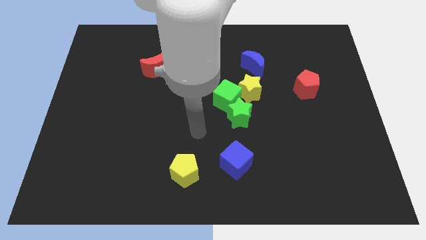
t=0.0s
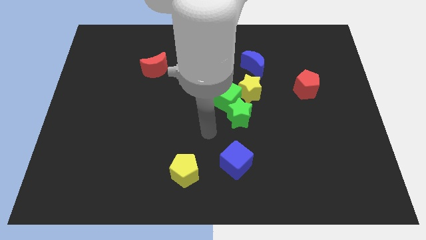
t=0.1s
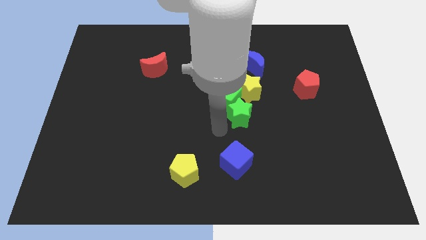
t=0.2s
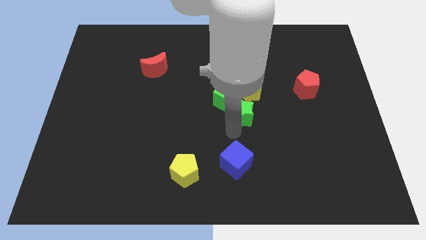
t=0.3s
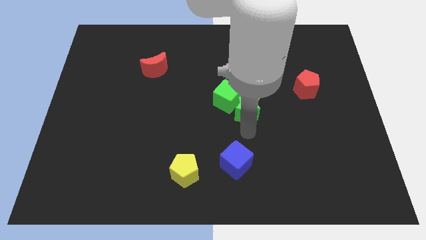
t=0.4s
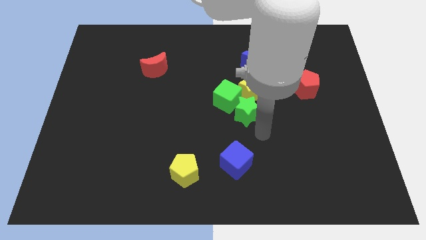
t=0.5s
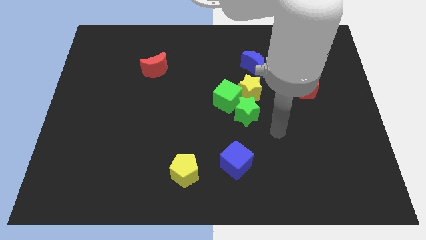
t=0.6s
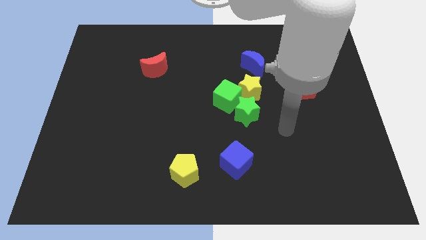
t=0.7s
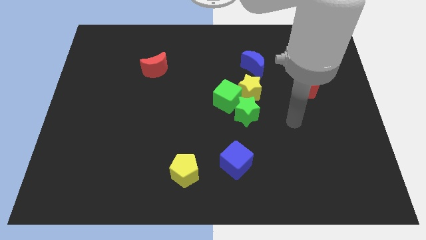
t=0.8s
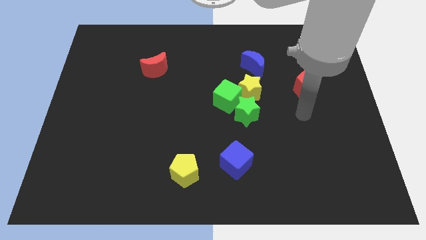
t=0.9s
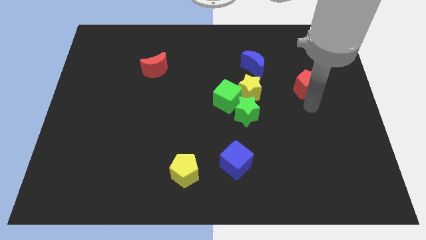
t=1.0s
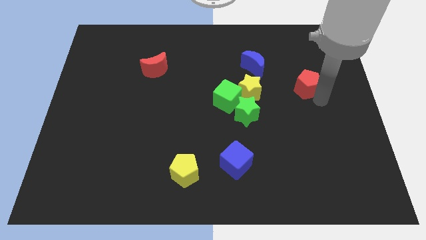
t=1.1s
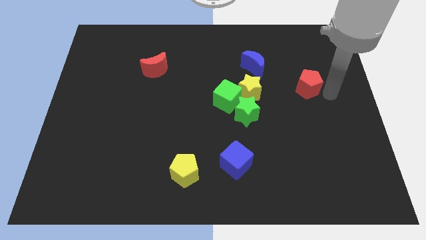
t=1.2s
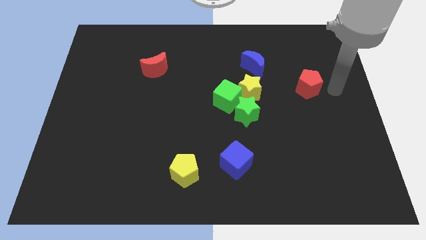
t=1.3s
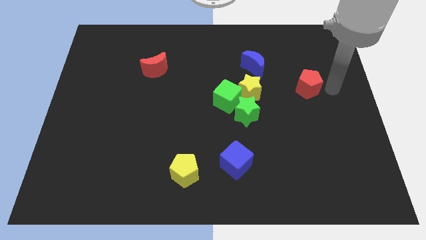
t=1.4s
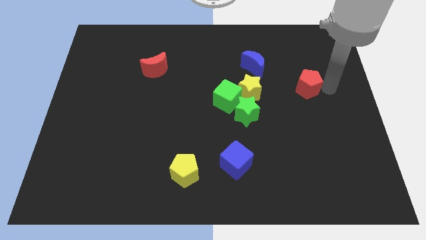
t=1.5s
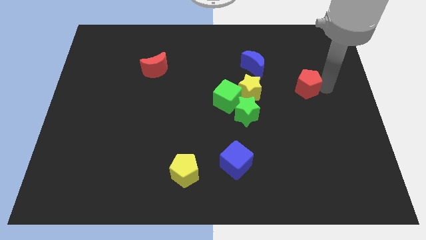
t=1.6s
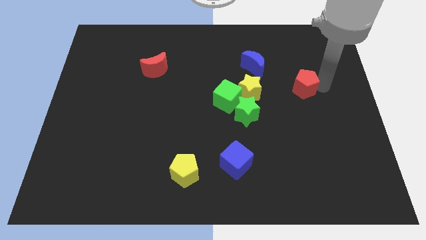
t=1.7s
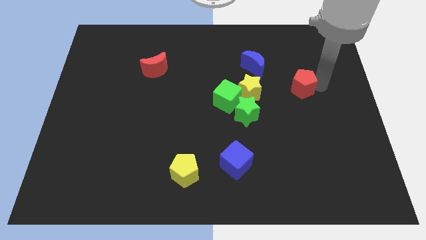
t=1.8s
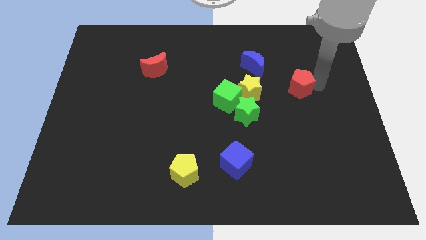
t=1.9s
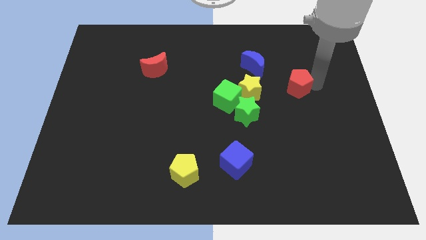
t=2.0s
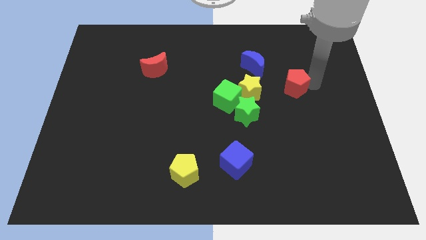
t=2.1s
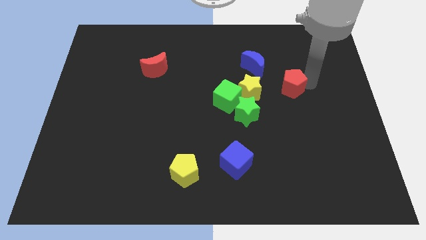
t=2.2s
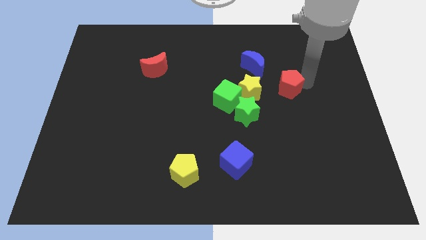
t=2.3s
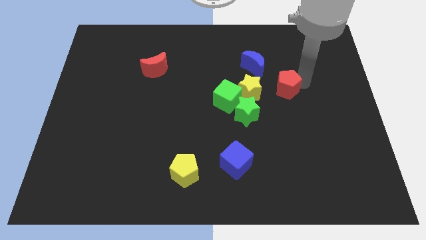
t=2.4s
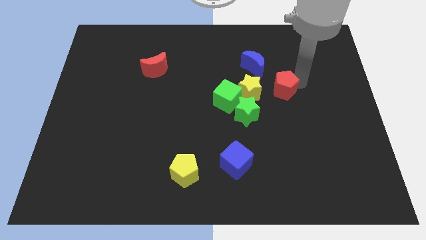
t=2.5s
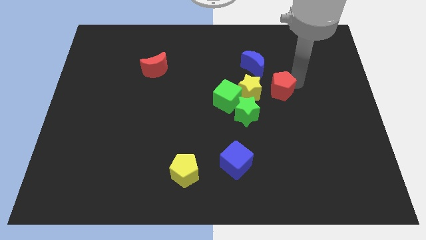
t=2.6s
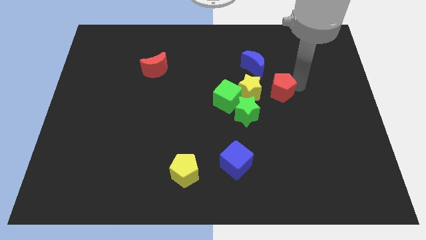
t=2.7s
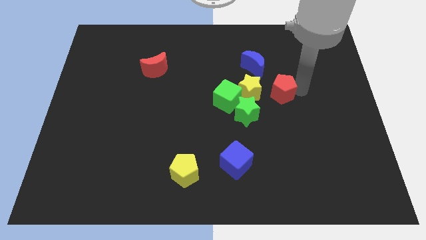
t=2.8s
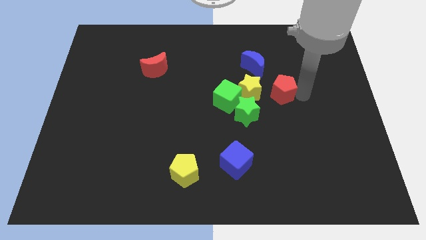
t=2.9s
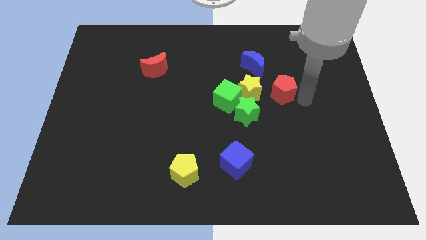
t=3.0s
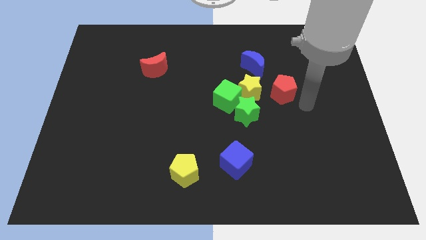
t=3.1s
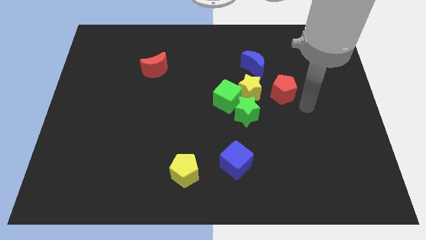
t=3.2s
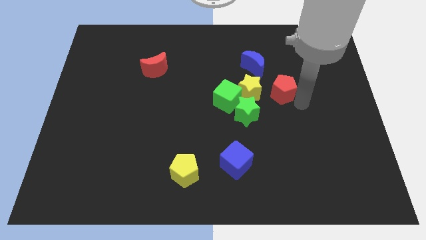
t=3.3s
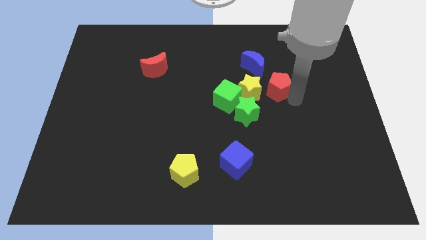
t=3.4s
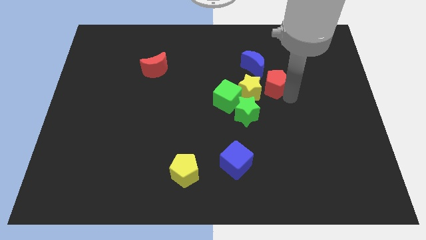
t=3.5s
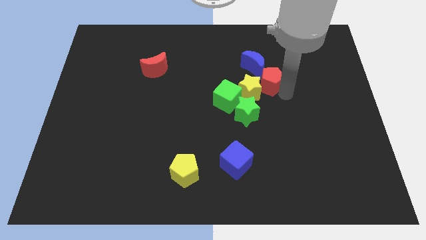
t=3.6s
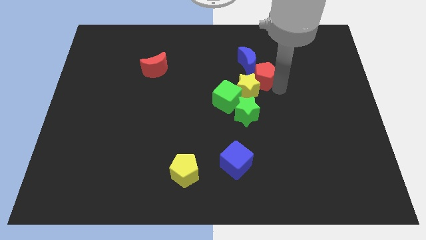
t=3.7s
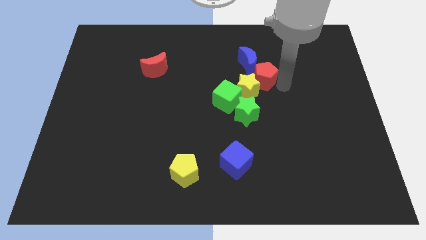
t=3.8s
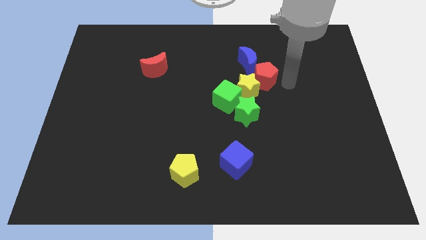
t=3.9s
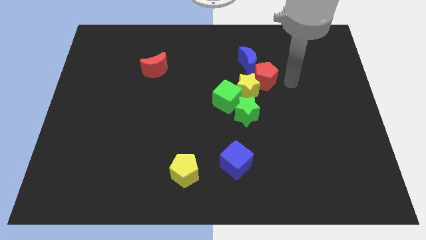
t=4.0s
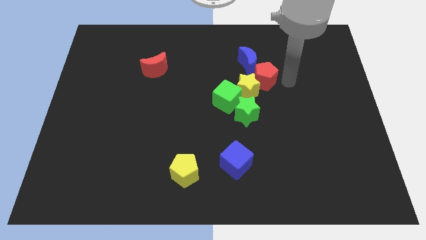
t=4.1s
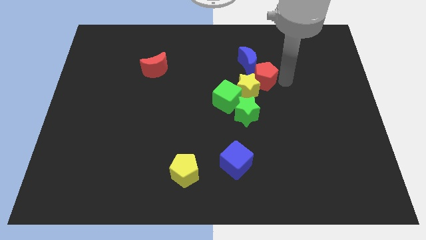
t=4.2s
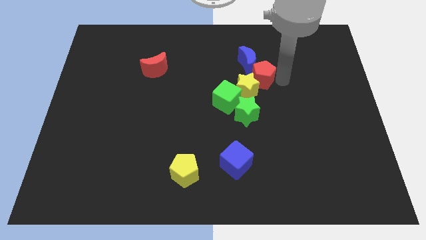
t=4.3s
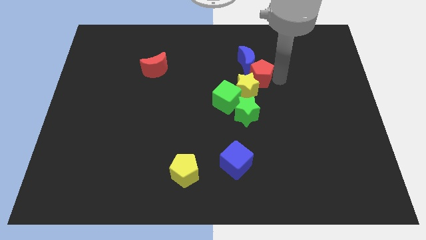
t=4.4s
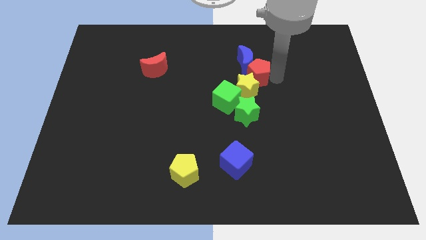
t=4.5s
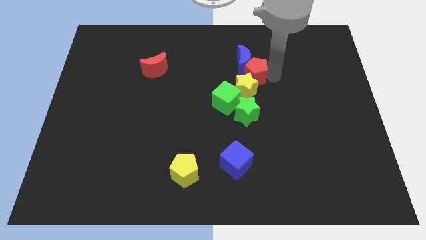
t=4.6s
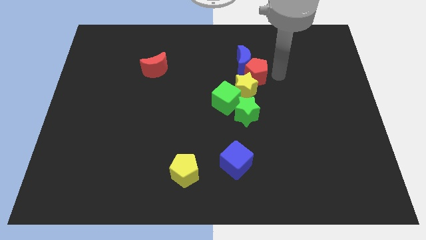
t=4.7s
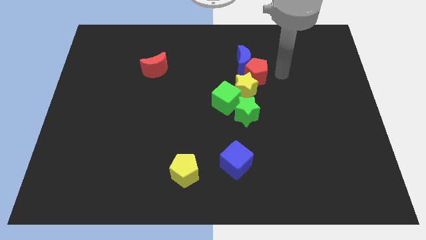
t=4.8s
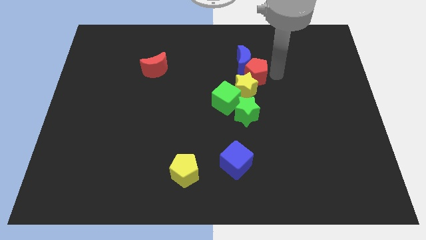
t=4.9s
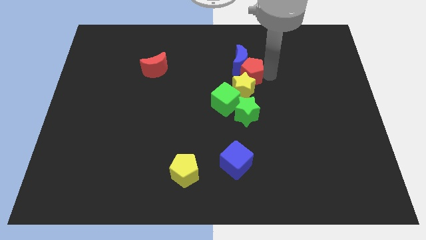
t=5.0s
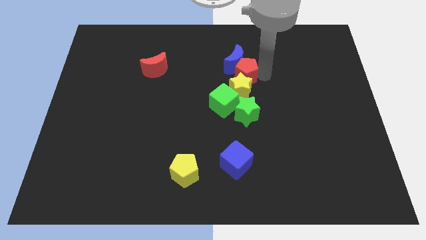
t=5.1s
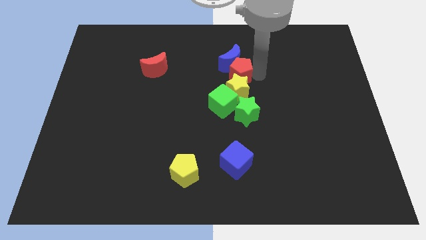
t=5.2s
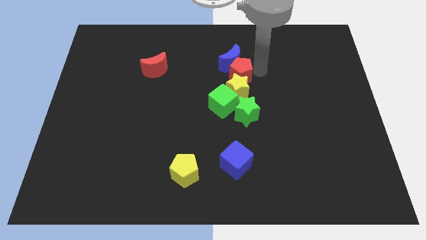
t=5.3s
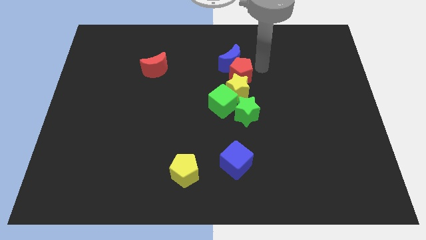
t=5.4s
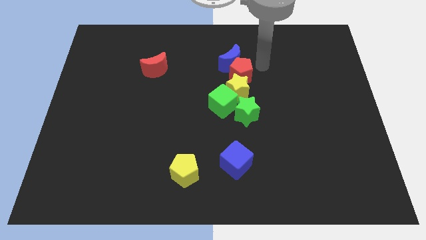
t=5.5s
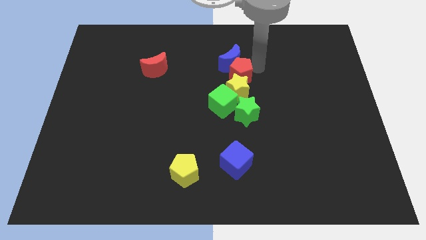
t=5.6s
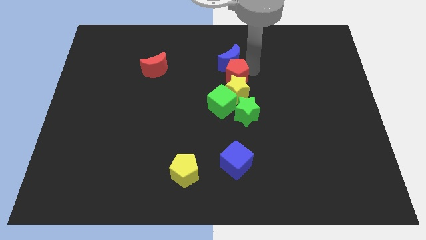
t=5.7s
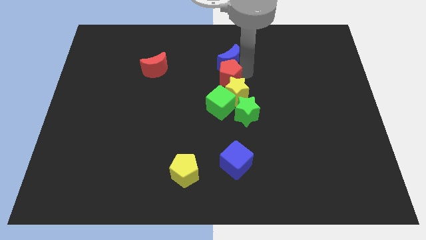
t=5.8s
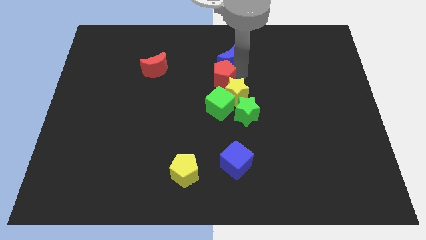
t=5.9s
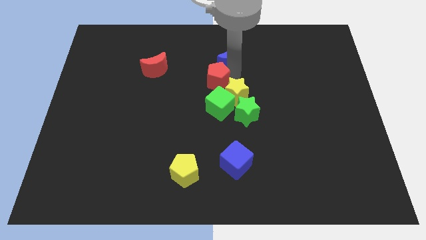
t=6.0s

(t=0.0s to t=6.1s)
push the red pentagon to the top left side of the green star

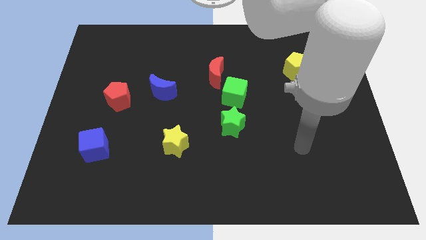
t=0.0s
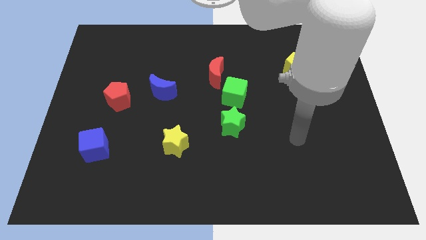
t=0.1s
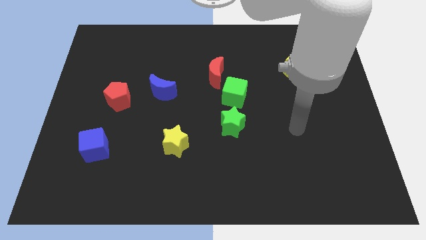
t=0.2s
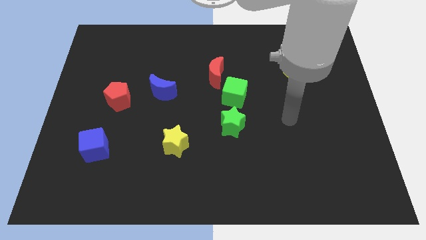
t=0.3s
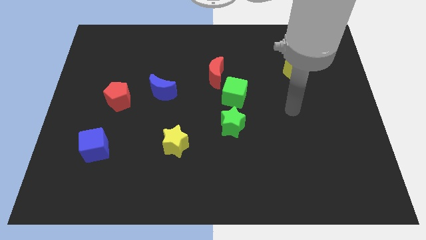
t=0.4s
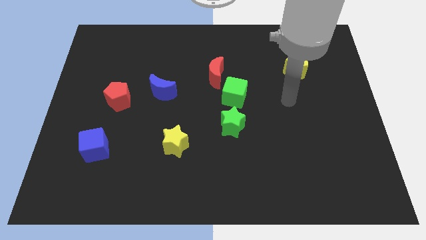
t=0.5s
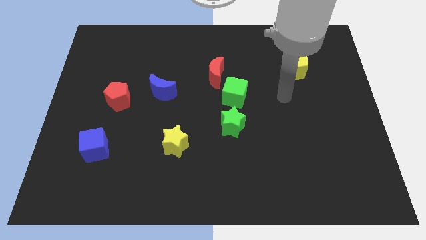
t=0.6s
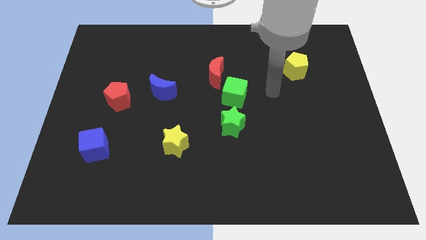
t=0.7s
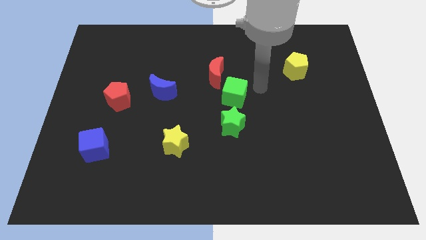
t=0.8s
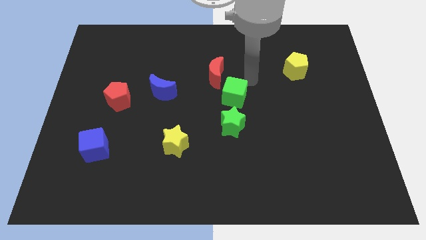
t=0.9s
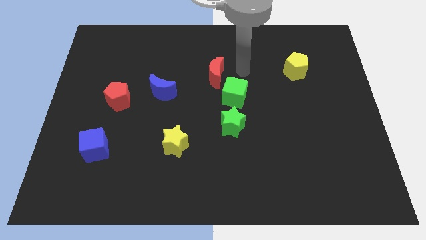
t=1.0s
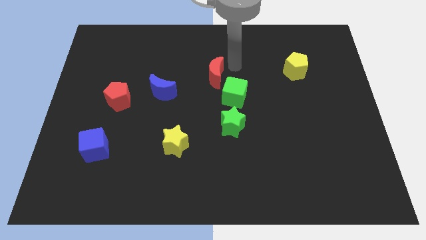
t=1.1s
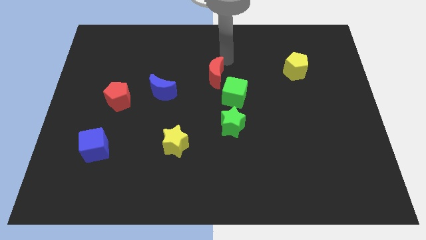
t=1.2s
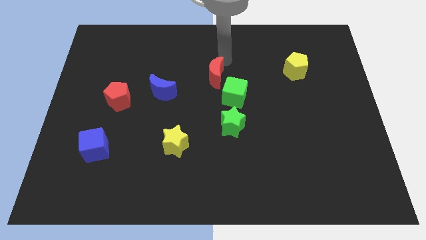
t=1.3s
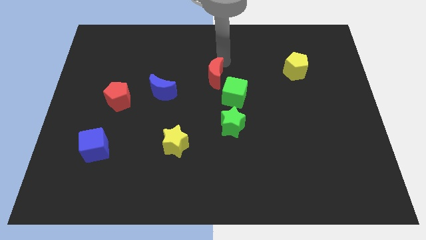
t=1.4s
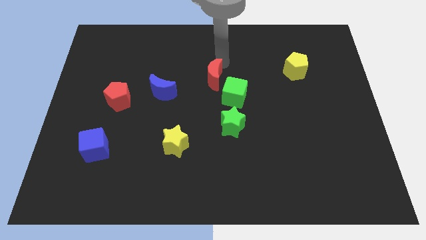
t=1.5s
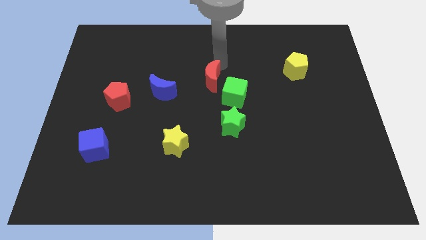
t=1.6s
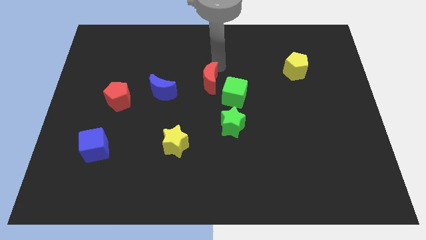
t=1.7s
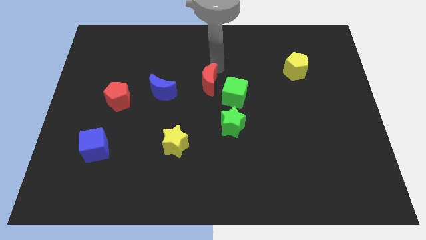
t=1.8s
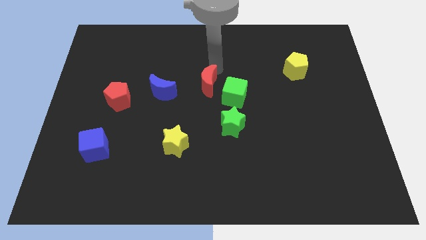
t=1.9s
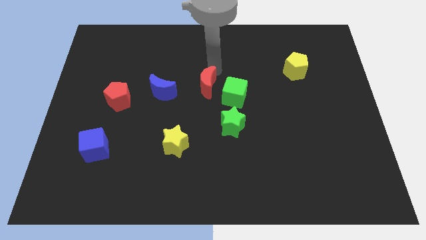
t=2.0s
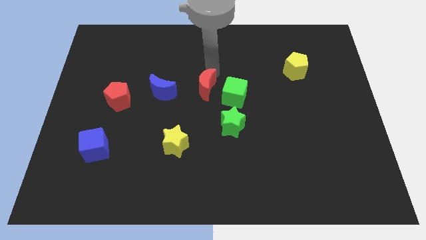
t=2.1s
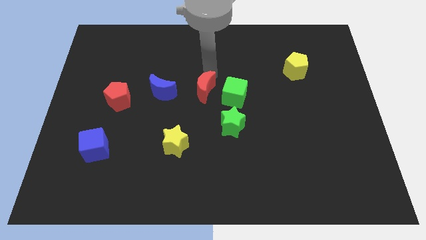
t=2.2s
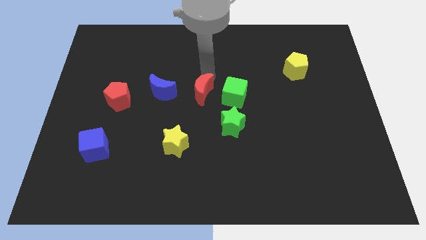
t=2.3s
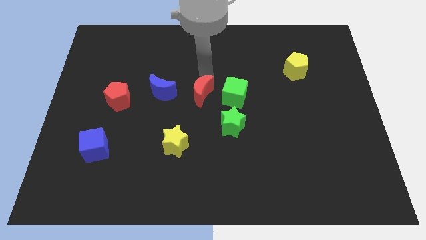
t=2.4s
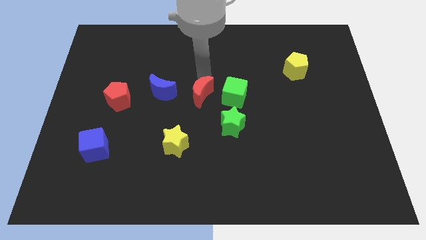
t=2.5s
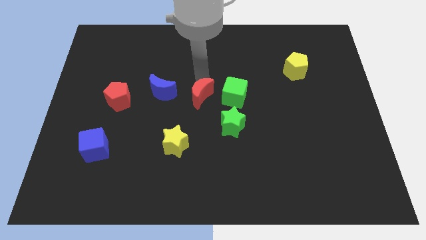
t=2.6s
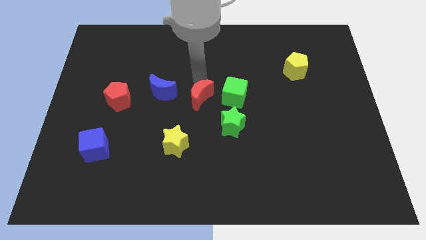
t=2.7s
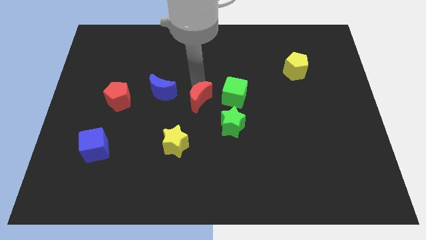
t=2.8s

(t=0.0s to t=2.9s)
slide the red moon to the top side of the yellow star
